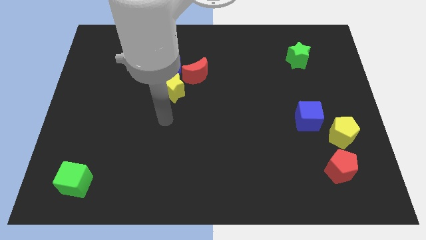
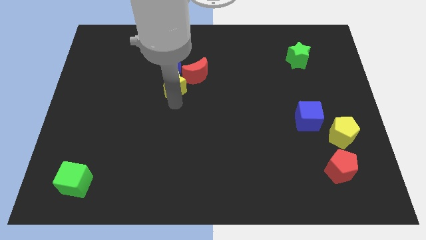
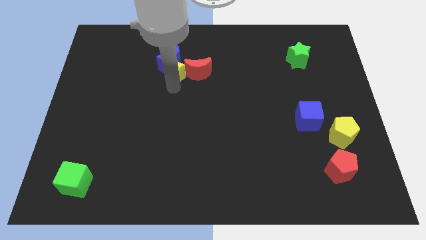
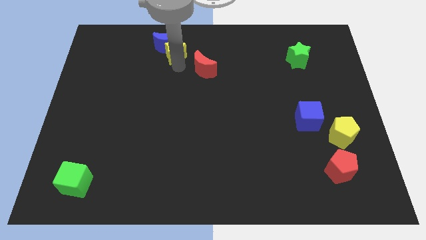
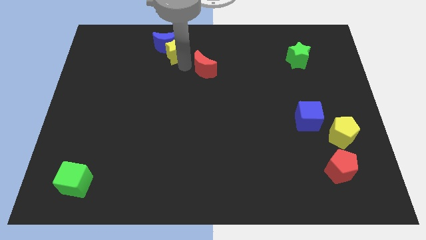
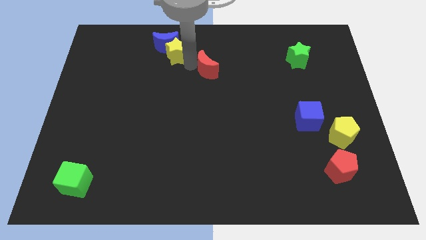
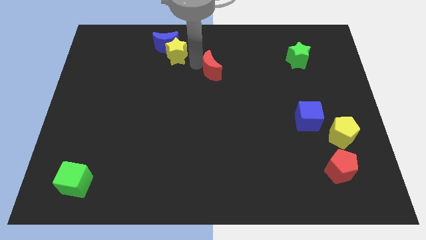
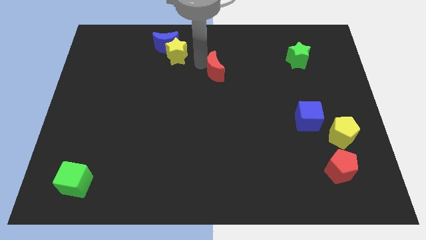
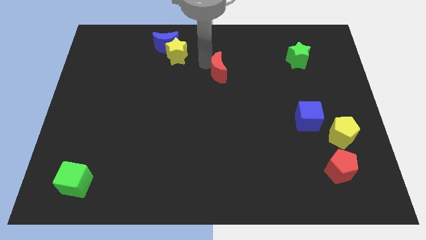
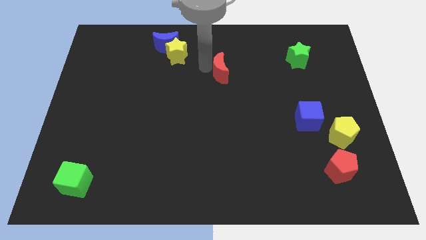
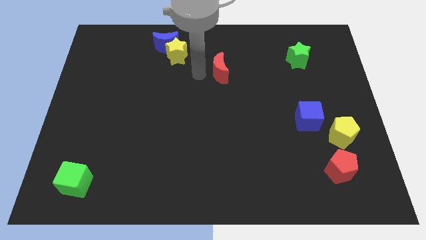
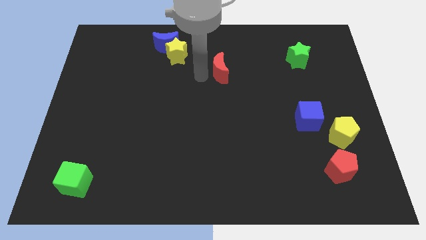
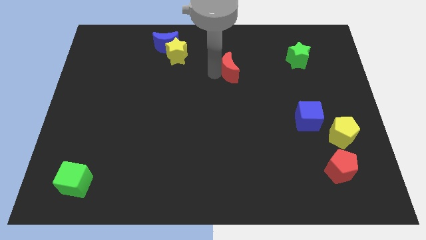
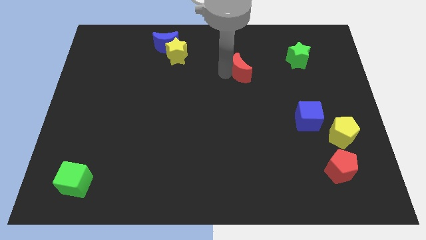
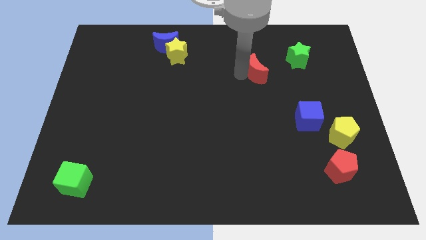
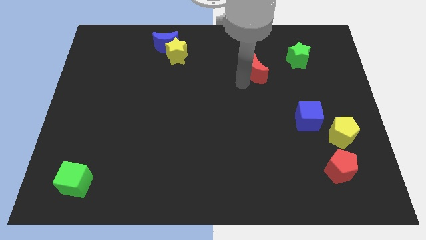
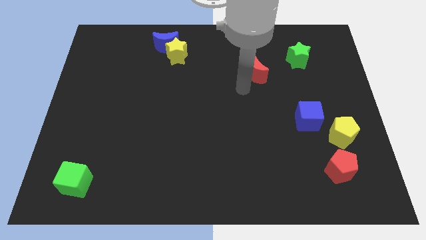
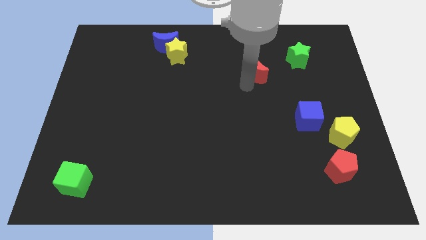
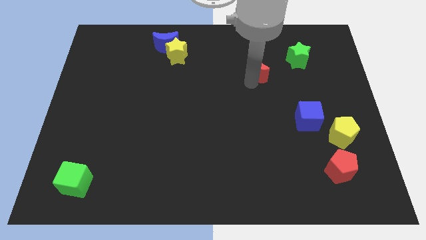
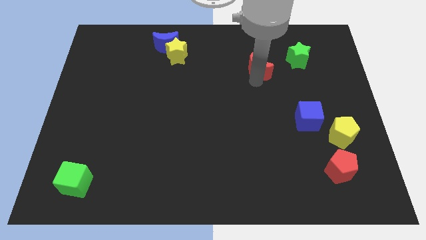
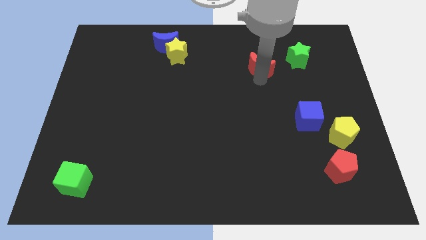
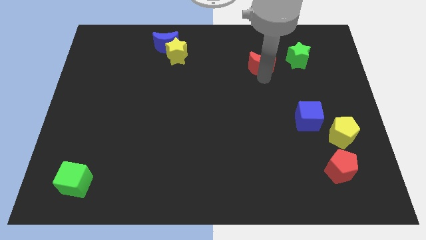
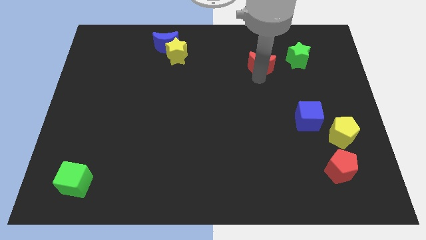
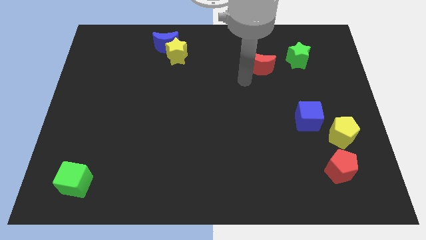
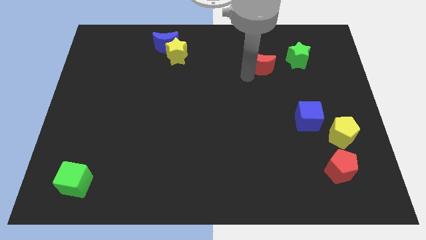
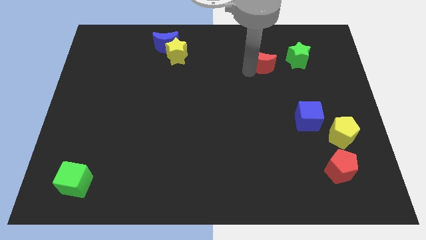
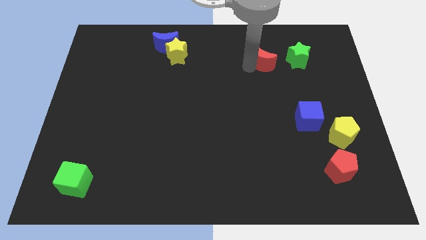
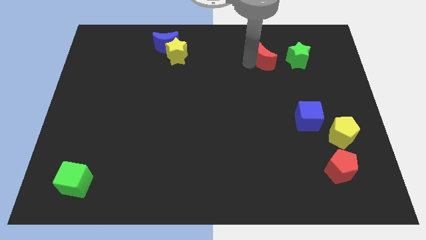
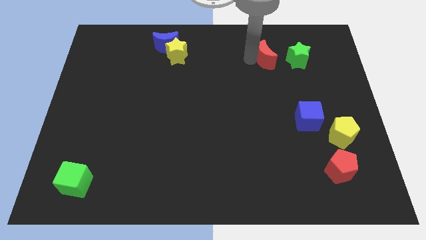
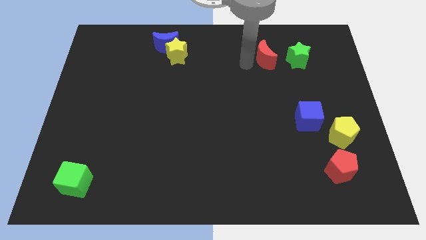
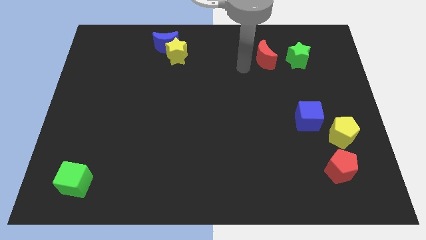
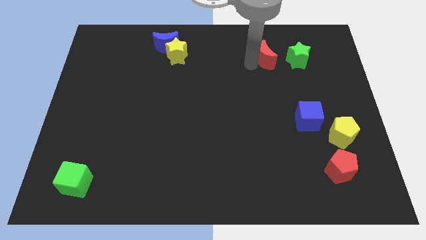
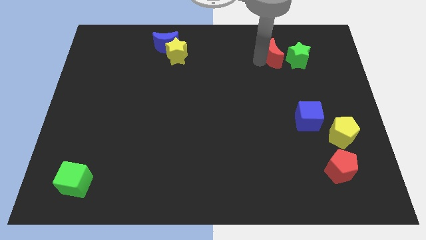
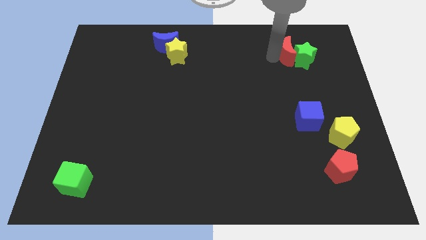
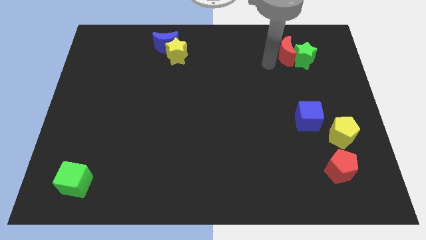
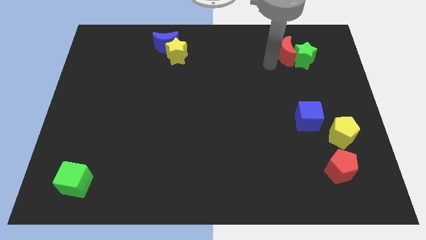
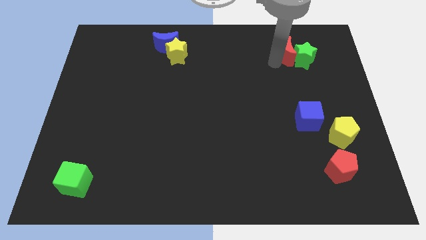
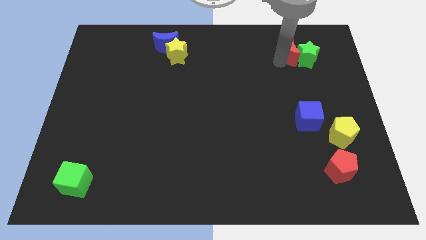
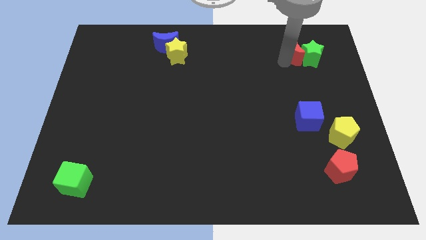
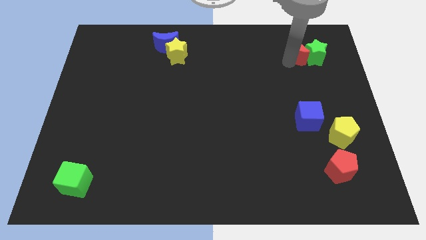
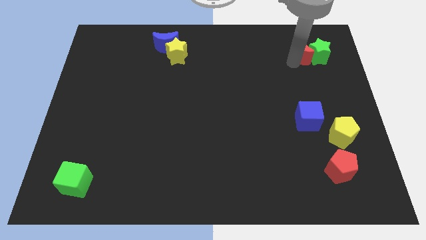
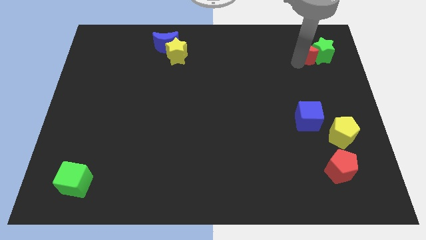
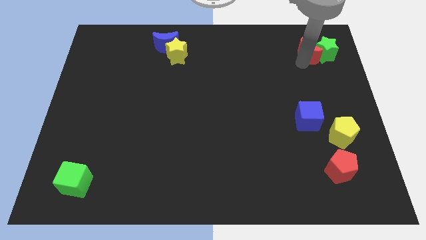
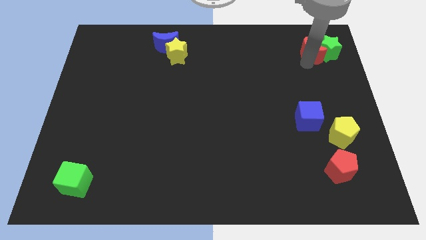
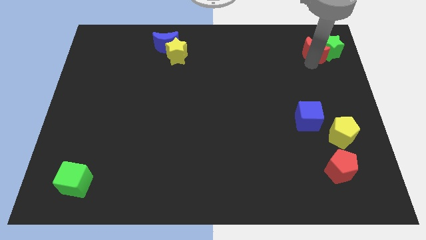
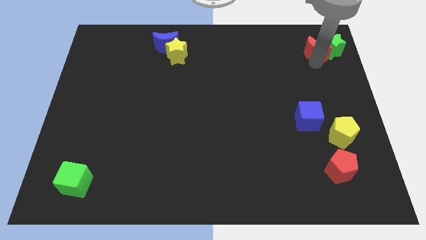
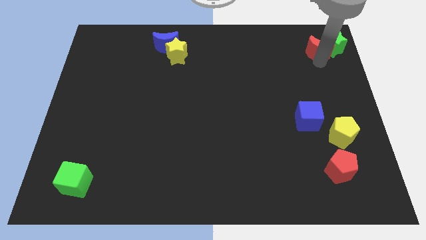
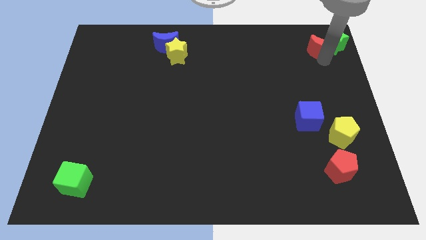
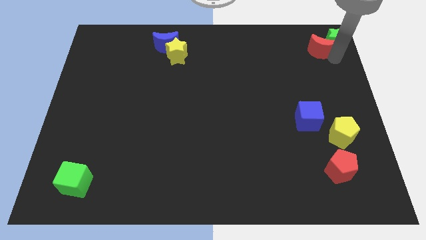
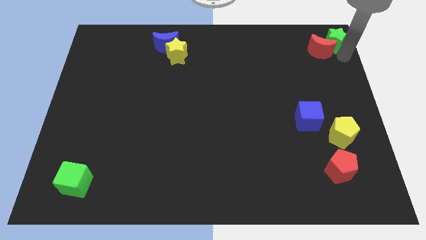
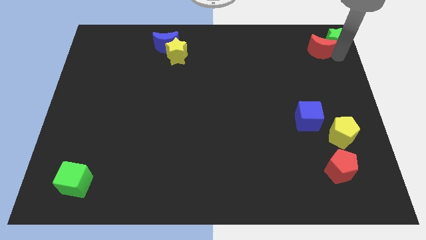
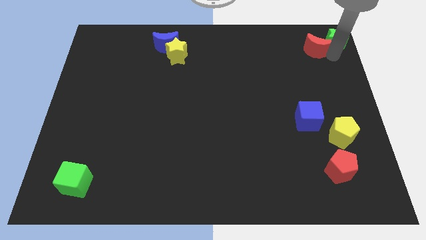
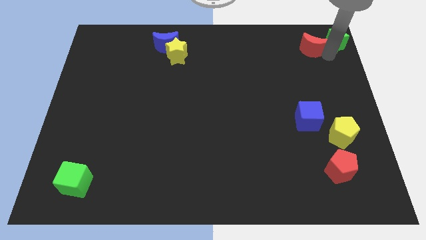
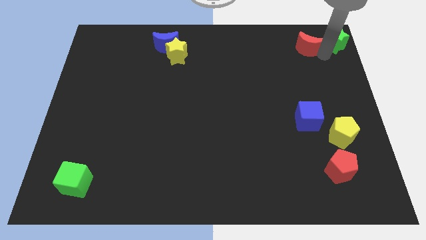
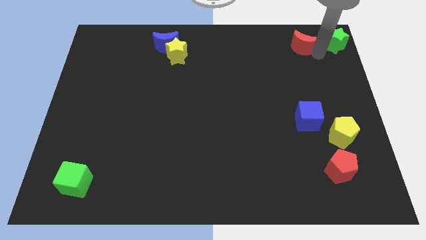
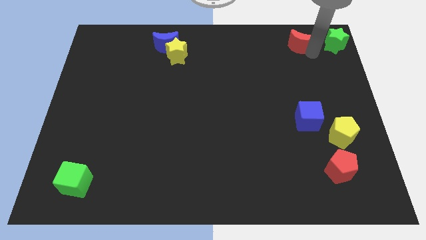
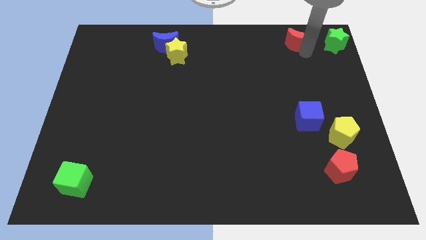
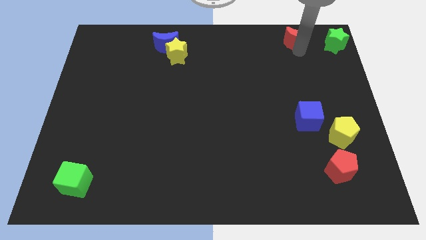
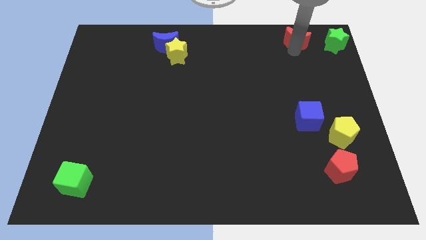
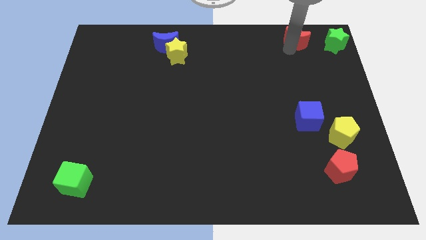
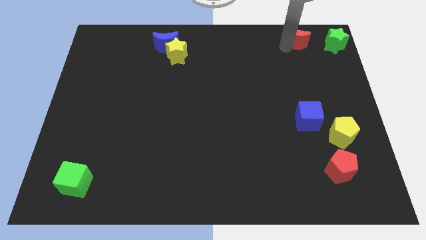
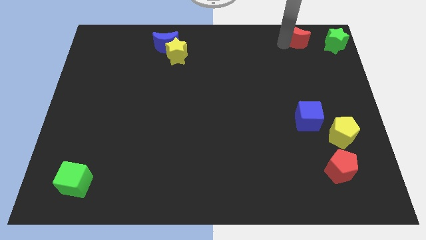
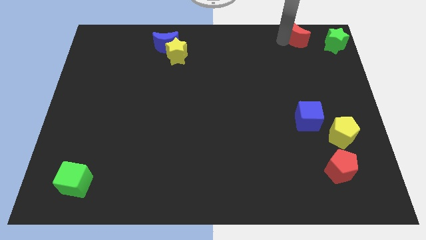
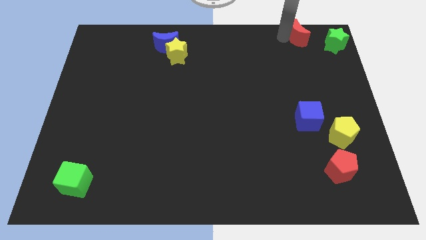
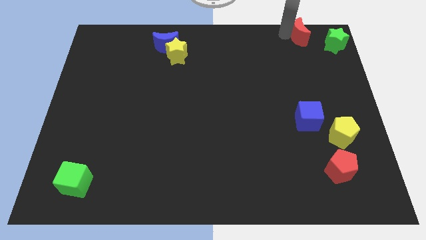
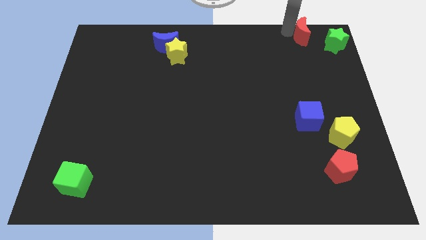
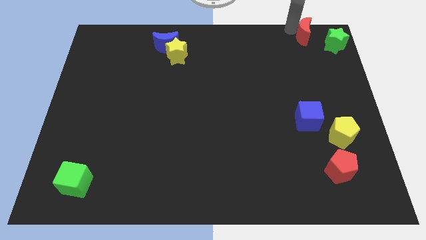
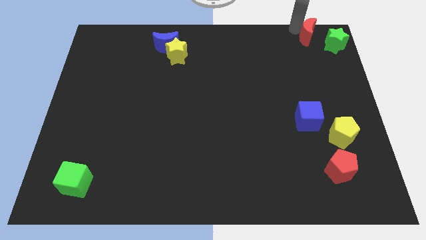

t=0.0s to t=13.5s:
put the red moon to the top right of the board

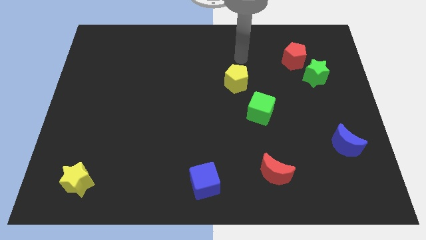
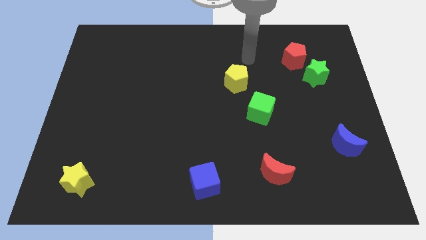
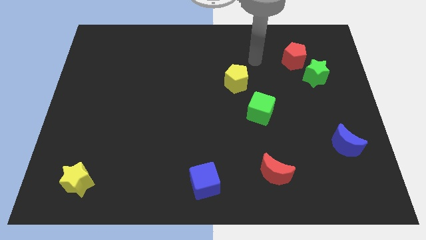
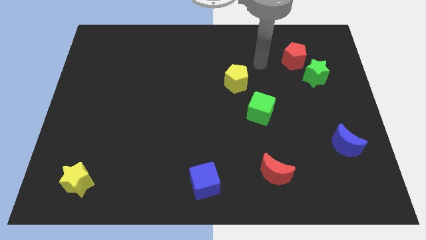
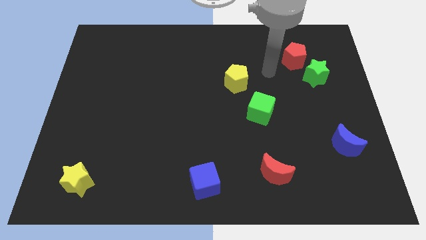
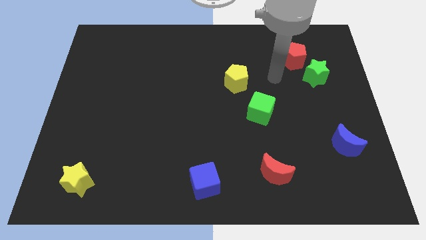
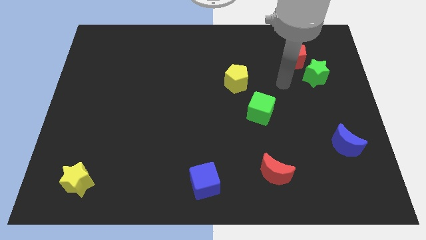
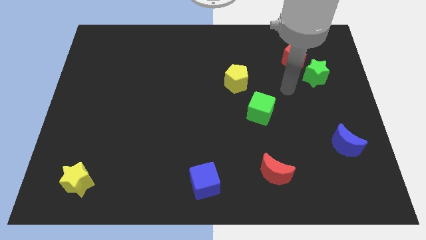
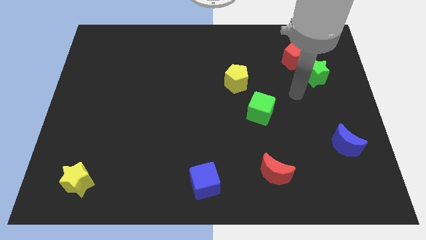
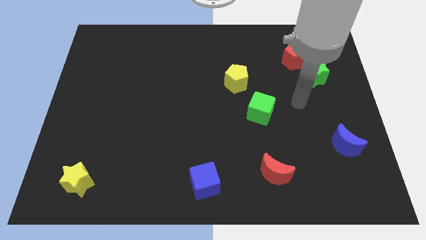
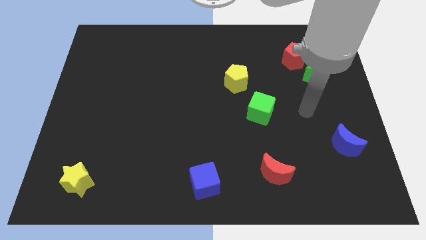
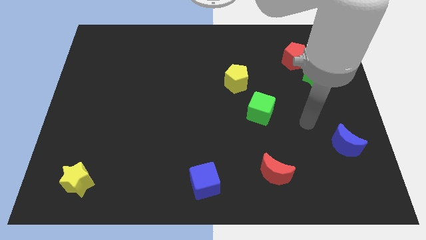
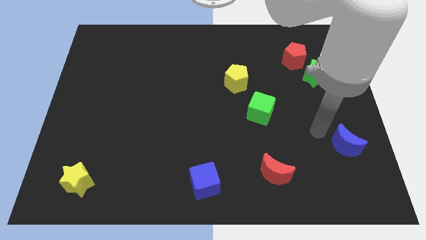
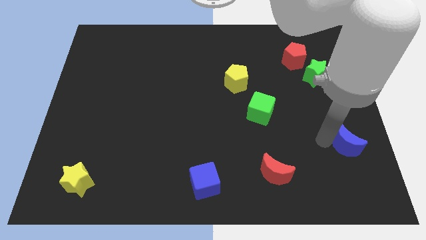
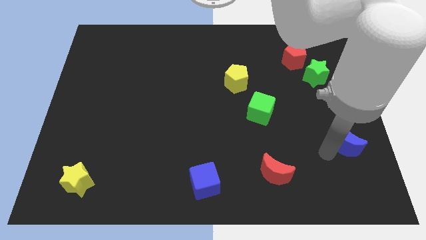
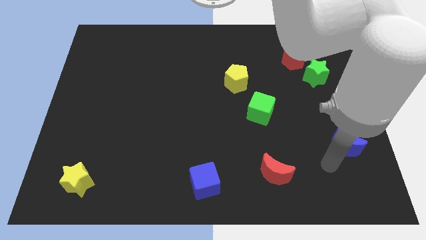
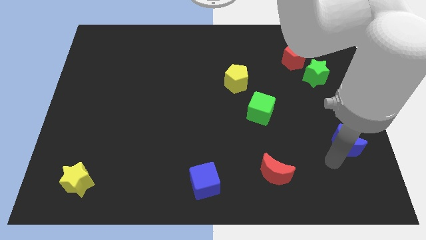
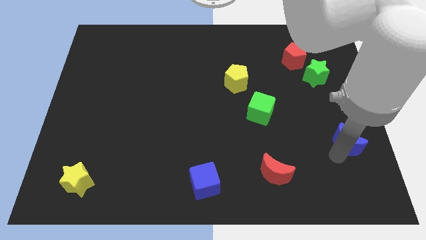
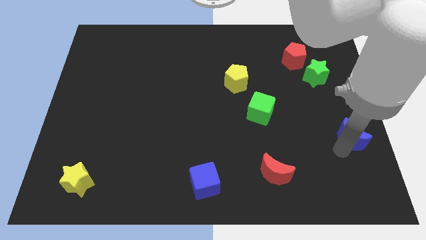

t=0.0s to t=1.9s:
slide the blue moon to the right side
